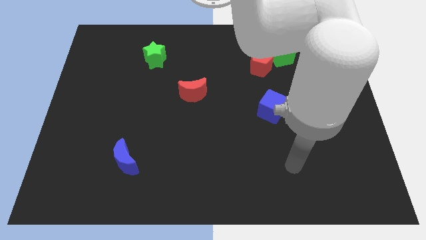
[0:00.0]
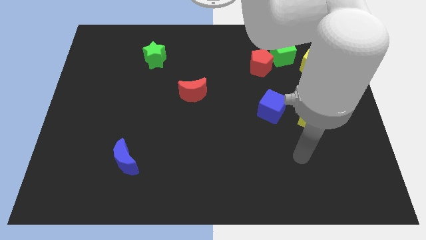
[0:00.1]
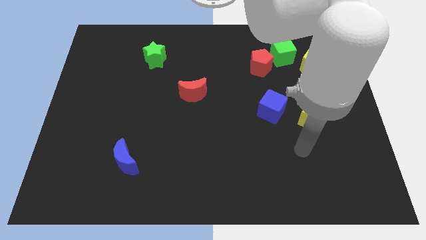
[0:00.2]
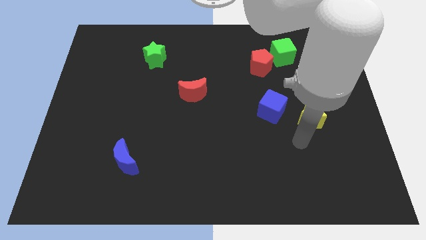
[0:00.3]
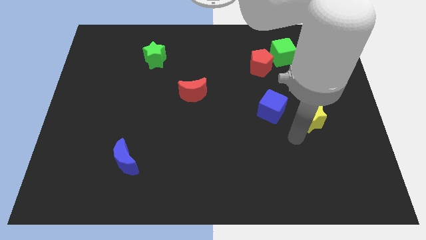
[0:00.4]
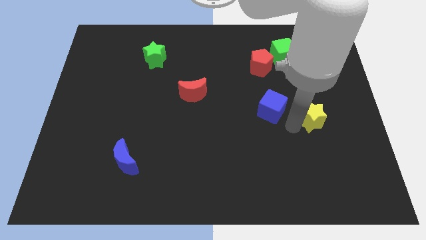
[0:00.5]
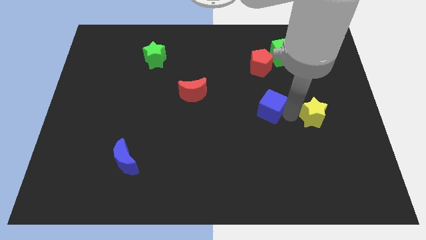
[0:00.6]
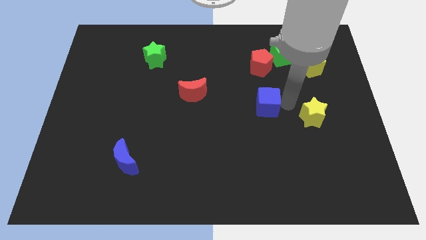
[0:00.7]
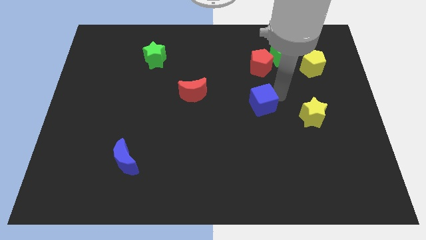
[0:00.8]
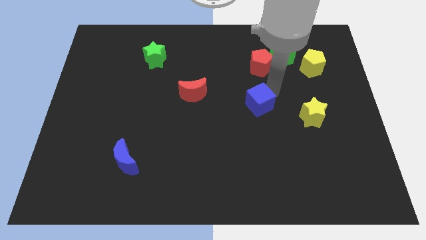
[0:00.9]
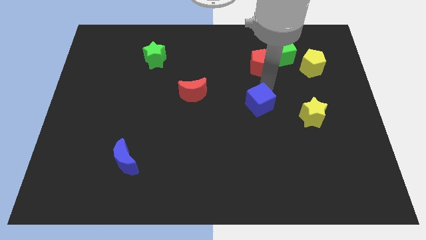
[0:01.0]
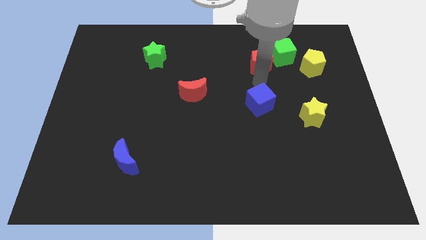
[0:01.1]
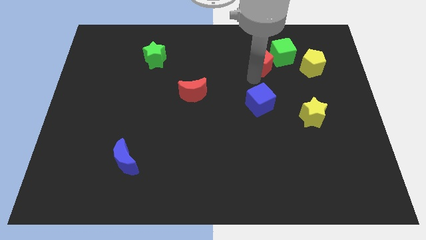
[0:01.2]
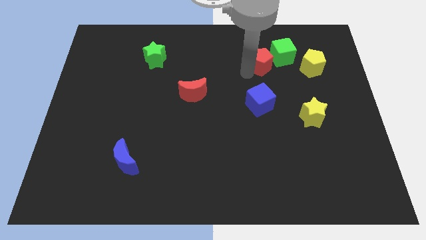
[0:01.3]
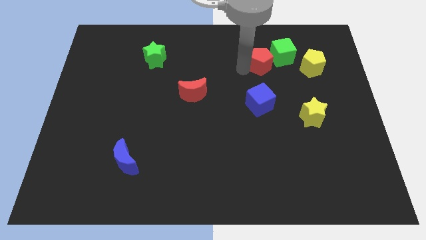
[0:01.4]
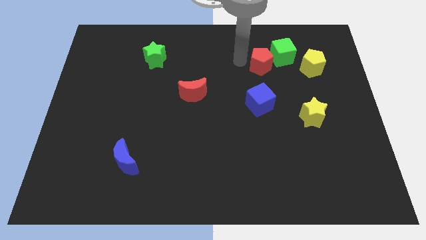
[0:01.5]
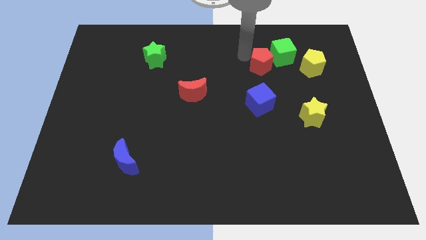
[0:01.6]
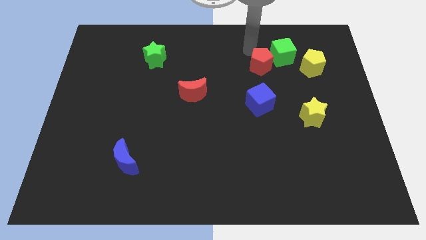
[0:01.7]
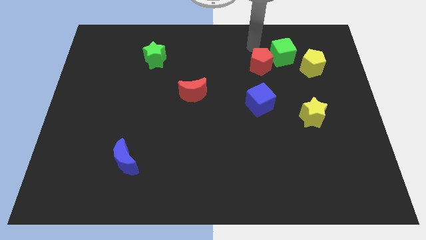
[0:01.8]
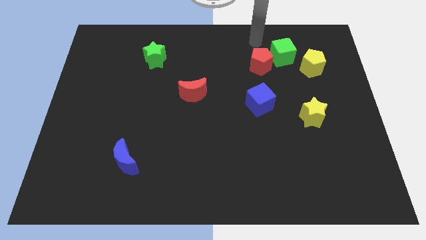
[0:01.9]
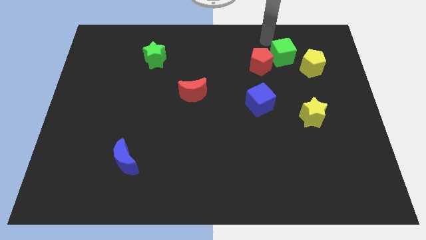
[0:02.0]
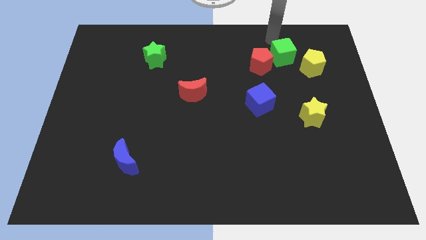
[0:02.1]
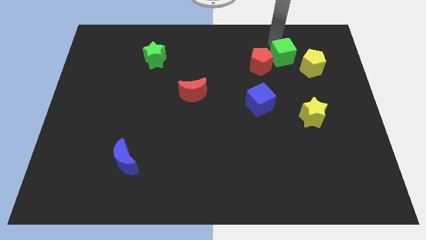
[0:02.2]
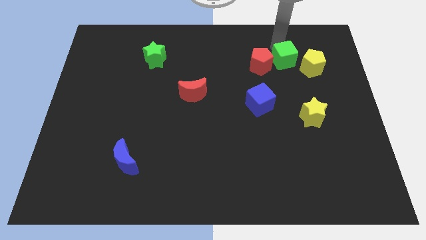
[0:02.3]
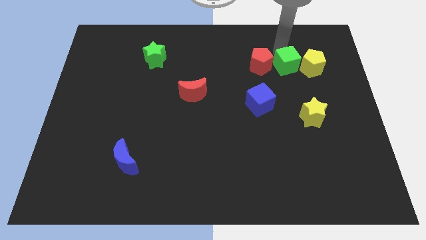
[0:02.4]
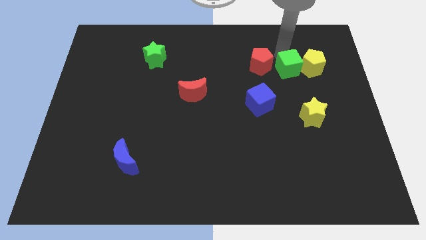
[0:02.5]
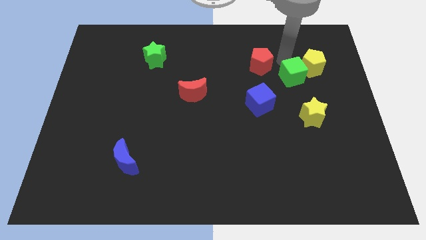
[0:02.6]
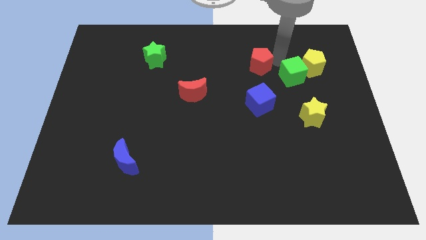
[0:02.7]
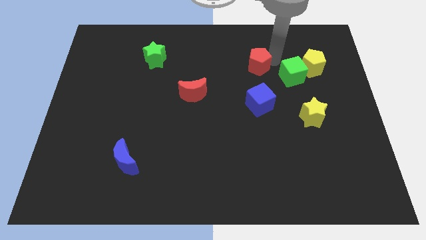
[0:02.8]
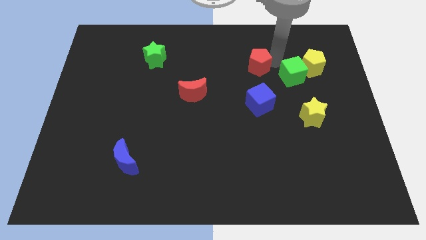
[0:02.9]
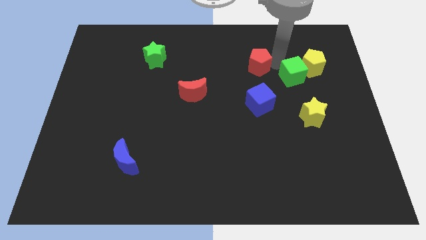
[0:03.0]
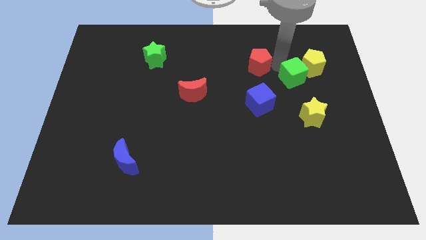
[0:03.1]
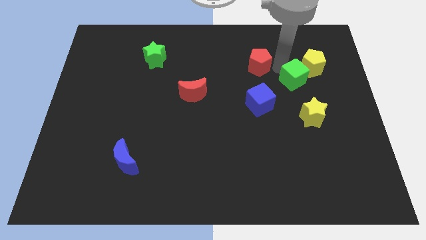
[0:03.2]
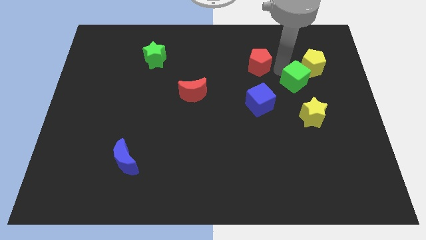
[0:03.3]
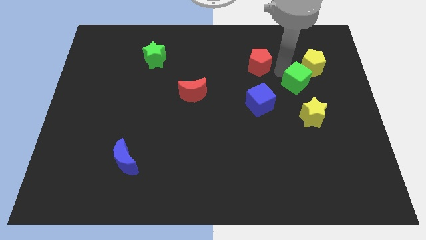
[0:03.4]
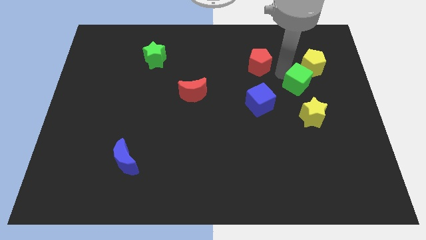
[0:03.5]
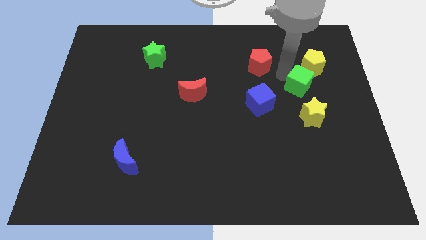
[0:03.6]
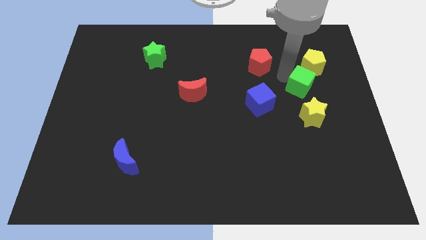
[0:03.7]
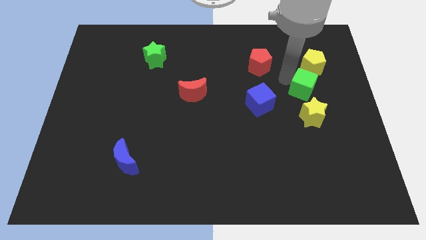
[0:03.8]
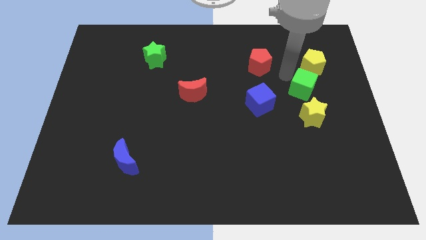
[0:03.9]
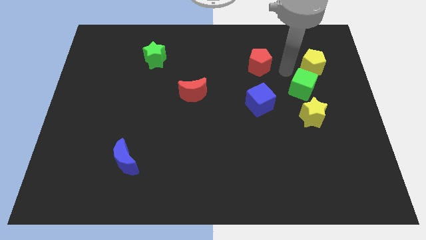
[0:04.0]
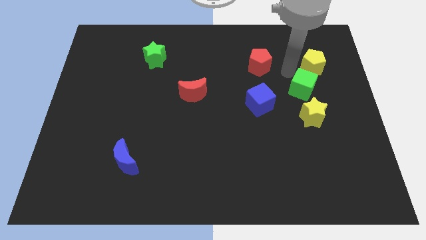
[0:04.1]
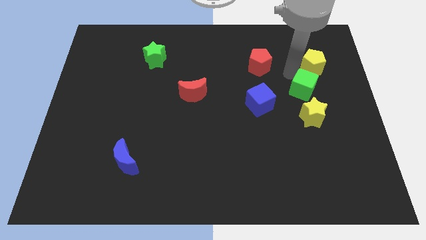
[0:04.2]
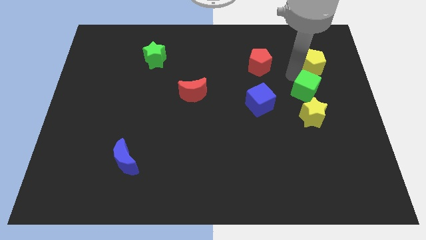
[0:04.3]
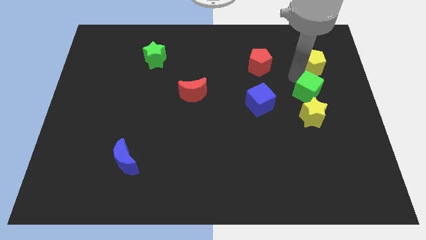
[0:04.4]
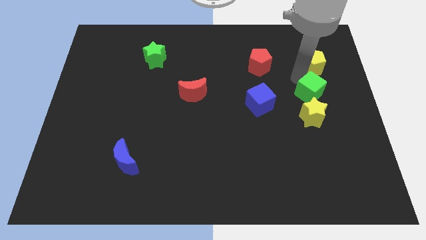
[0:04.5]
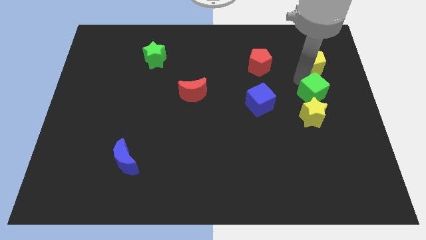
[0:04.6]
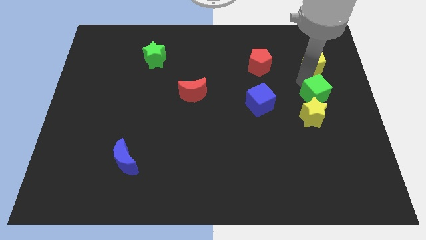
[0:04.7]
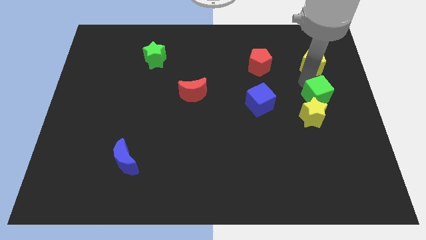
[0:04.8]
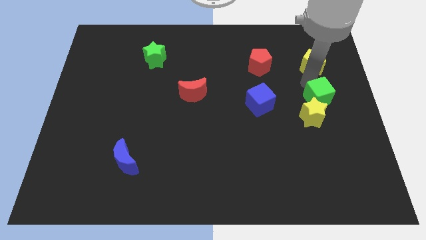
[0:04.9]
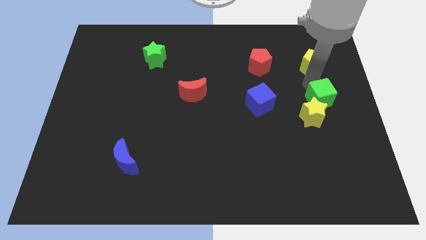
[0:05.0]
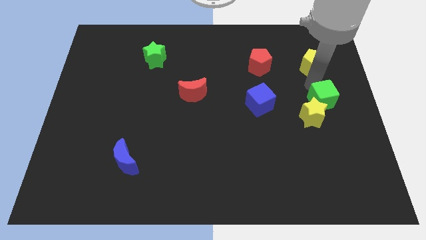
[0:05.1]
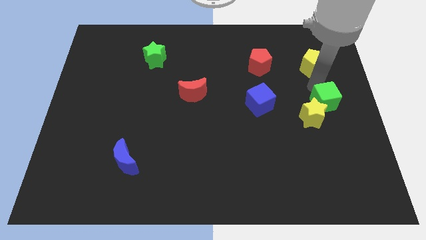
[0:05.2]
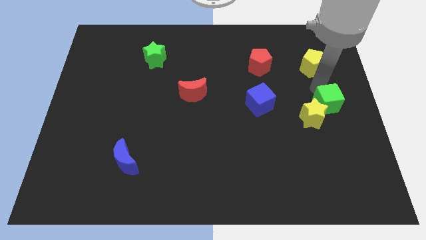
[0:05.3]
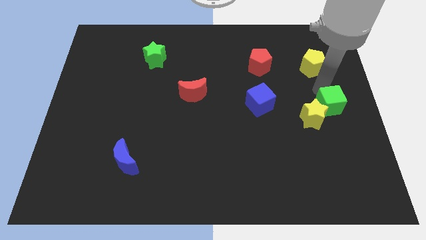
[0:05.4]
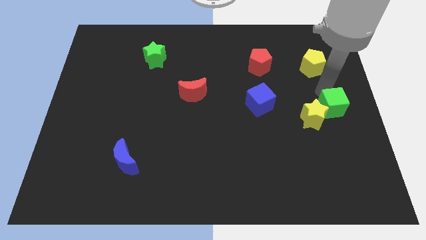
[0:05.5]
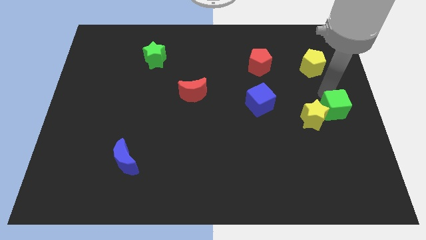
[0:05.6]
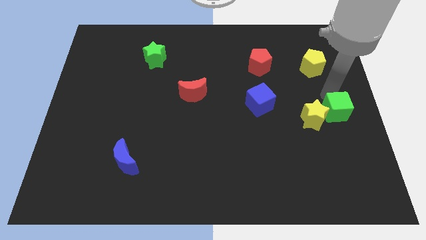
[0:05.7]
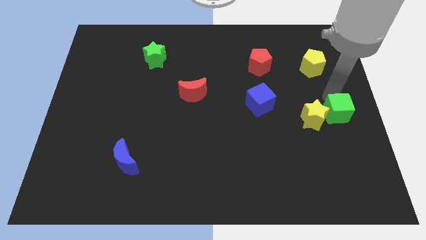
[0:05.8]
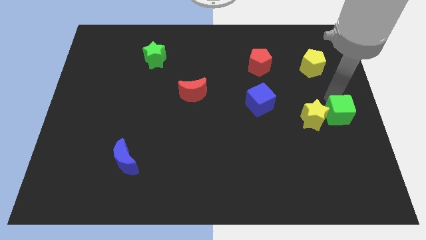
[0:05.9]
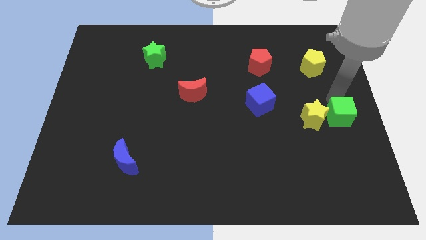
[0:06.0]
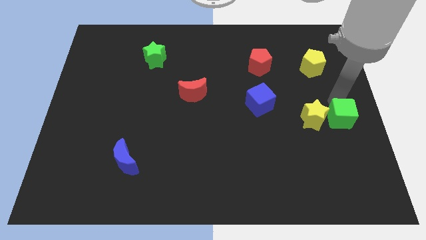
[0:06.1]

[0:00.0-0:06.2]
put the green cube diagonally down and to the right of the yellow star

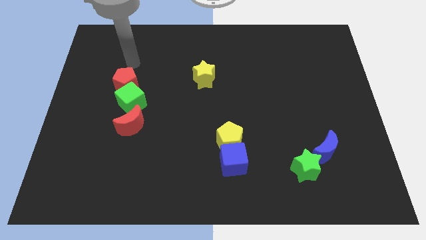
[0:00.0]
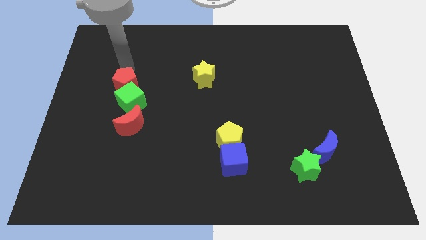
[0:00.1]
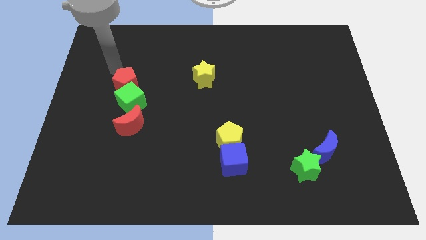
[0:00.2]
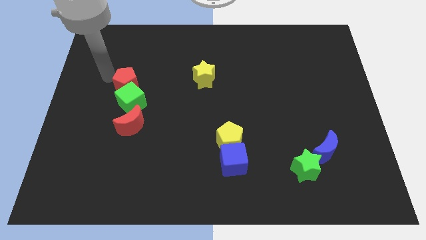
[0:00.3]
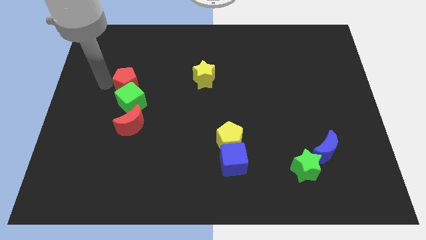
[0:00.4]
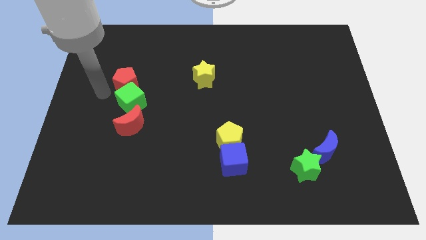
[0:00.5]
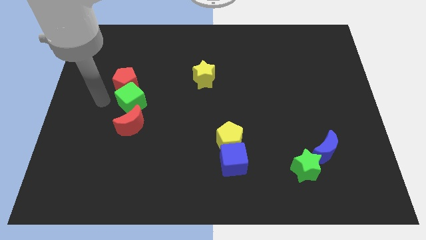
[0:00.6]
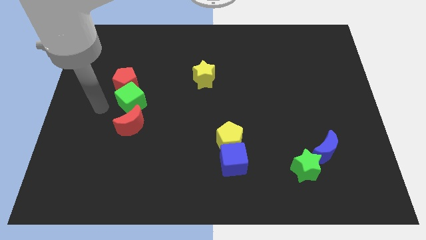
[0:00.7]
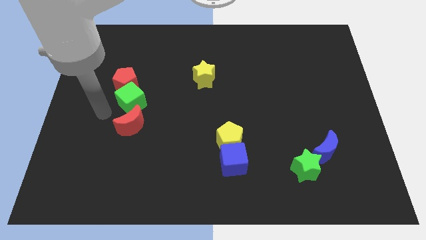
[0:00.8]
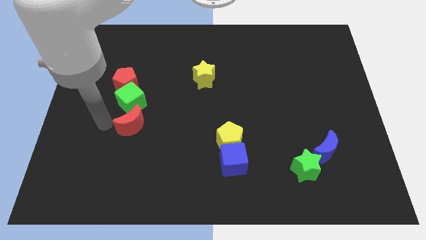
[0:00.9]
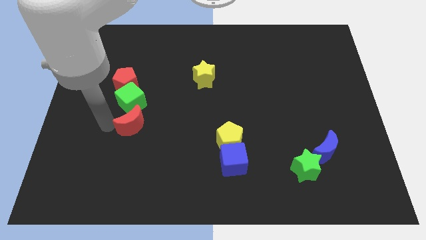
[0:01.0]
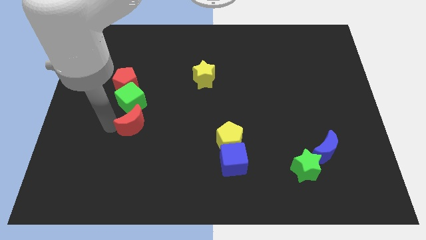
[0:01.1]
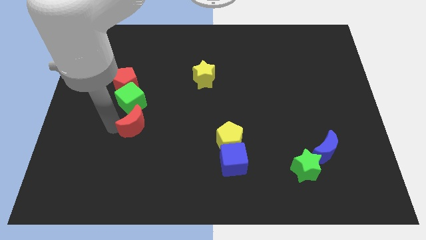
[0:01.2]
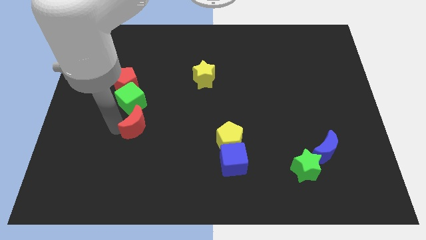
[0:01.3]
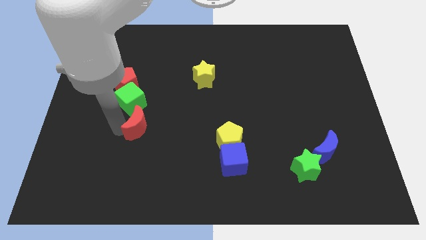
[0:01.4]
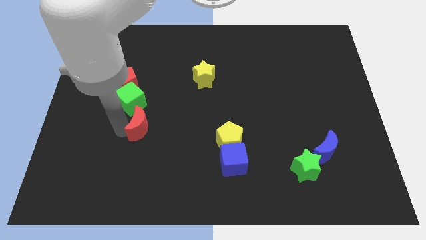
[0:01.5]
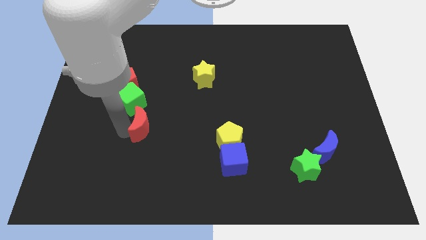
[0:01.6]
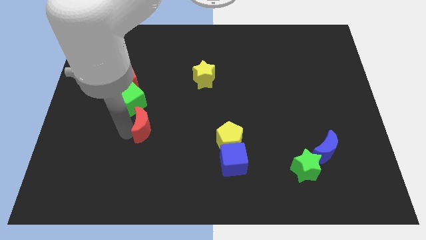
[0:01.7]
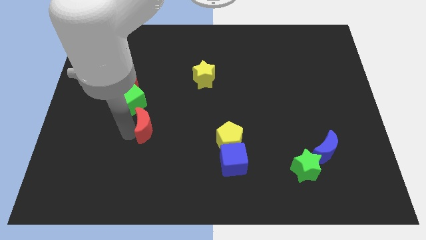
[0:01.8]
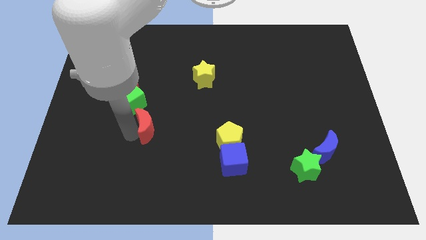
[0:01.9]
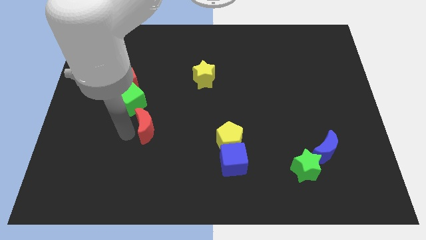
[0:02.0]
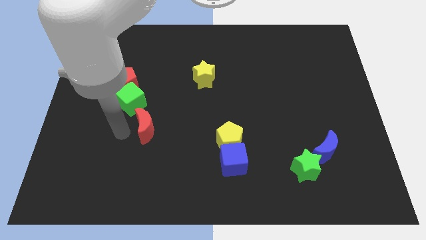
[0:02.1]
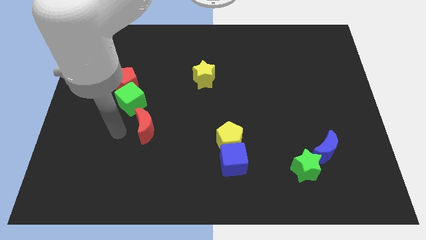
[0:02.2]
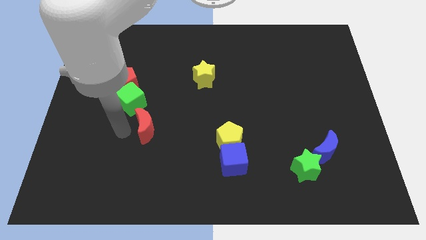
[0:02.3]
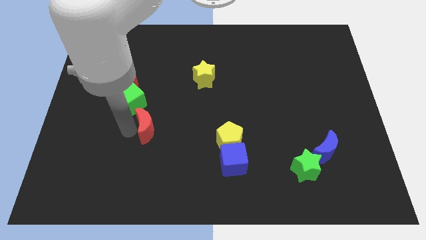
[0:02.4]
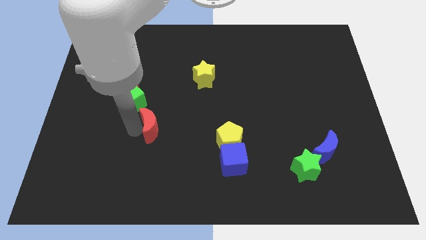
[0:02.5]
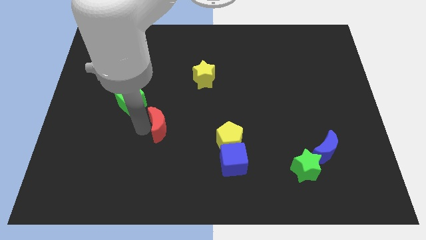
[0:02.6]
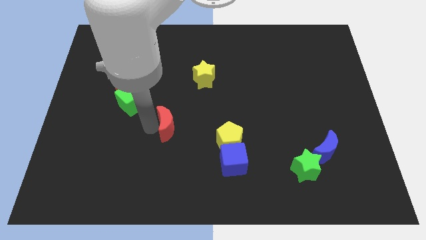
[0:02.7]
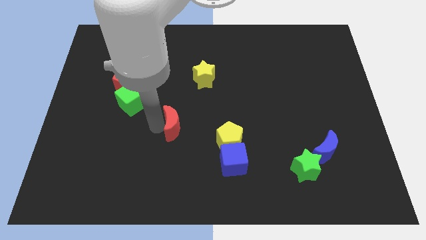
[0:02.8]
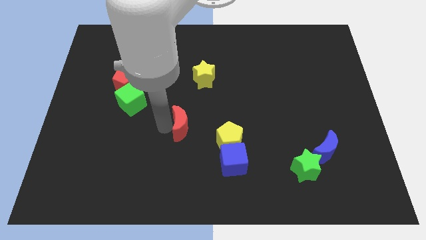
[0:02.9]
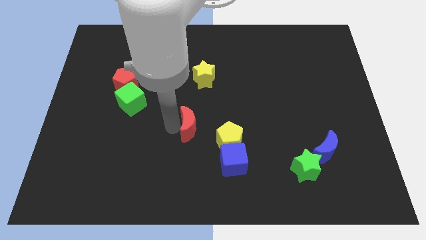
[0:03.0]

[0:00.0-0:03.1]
slide the red moon to the top left of the yellow pentagon
